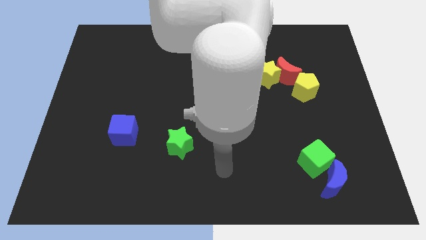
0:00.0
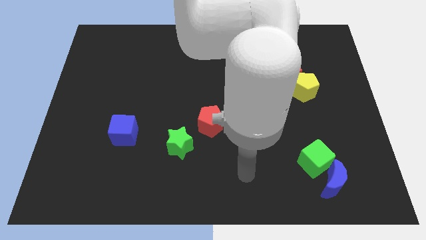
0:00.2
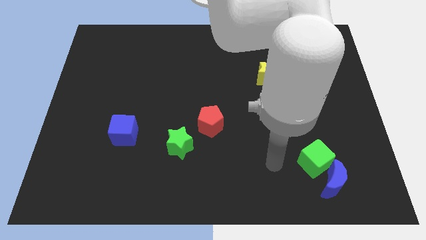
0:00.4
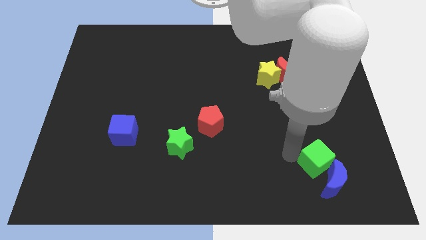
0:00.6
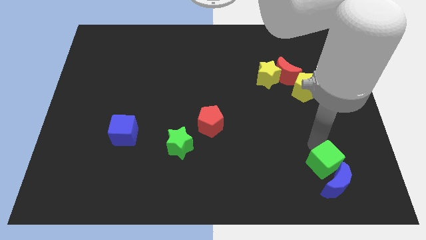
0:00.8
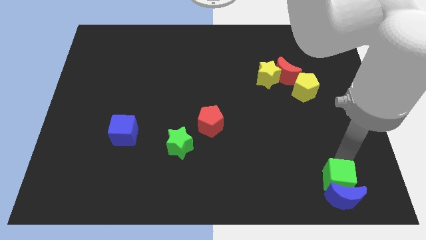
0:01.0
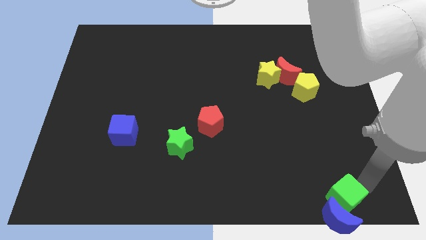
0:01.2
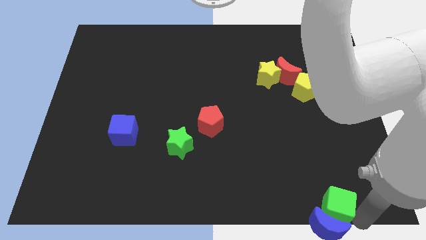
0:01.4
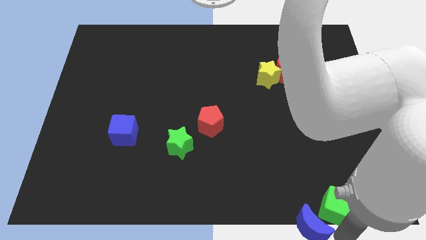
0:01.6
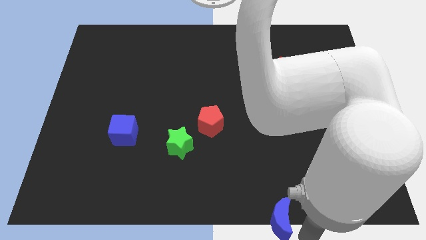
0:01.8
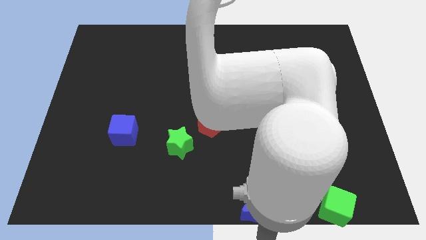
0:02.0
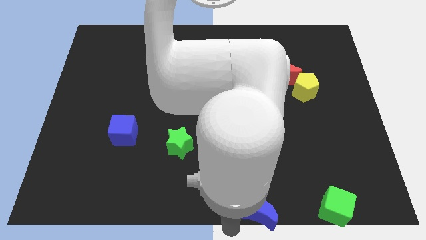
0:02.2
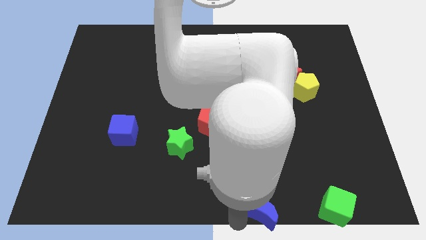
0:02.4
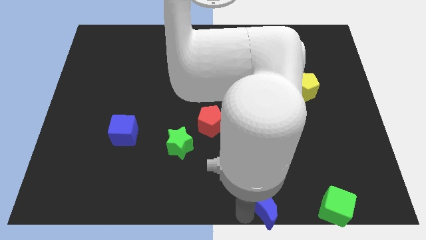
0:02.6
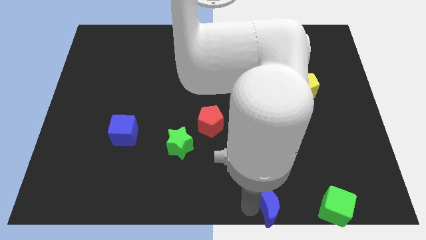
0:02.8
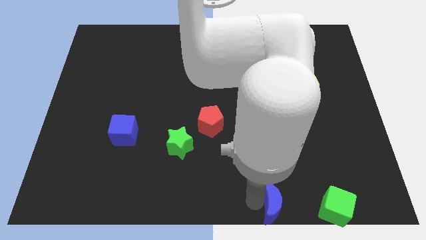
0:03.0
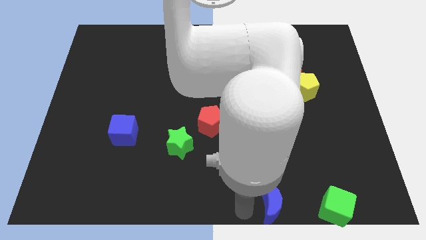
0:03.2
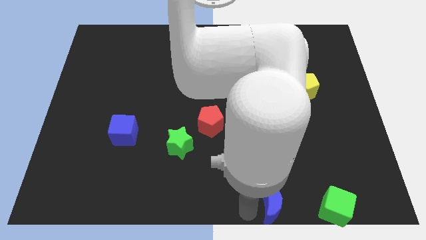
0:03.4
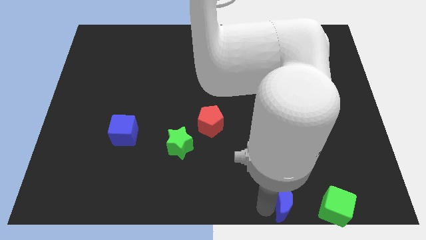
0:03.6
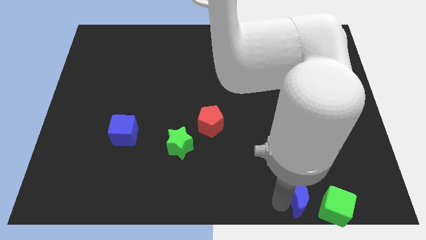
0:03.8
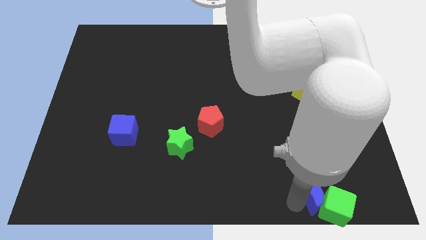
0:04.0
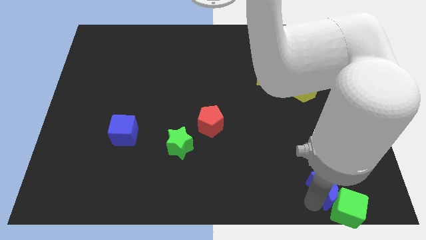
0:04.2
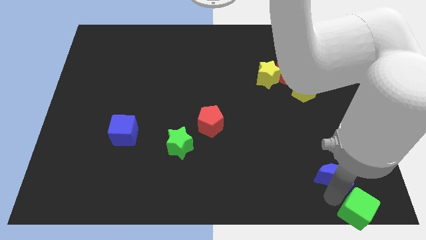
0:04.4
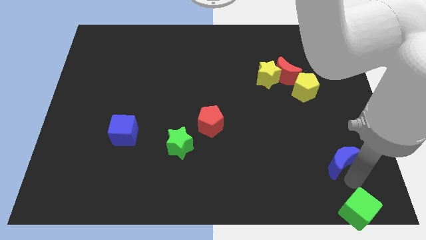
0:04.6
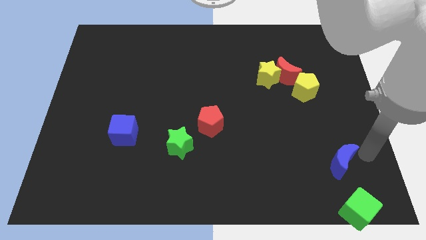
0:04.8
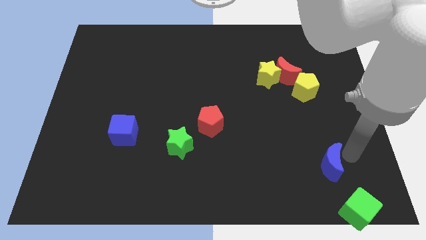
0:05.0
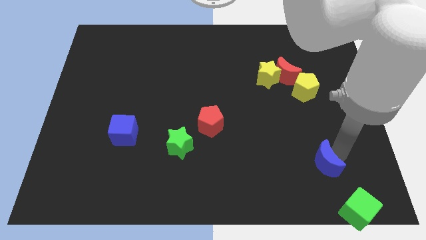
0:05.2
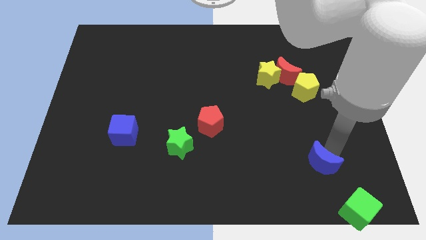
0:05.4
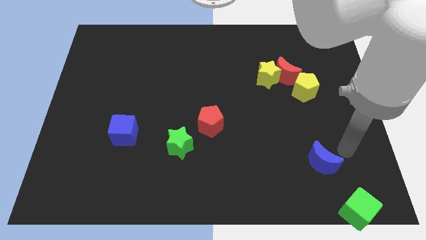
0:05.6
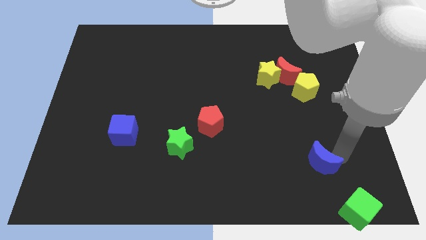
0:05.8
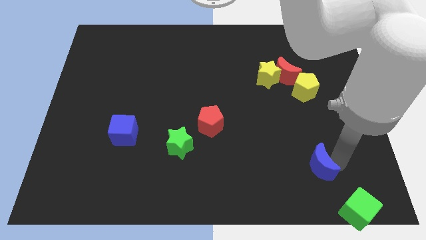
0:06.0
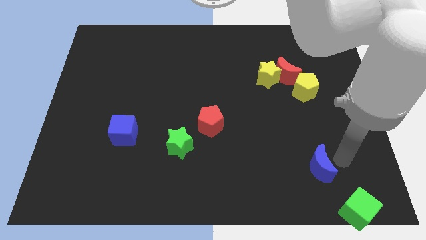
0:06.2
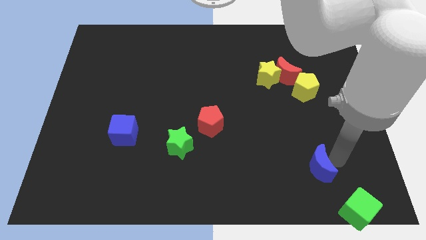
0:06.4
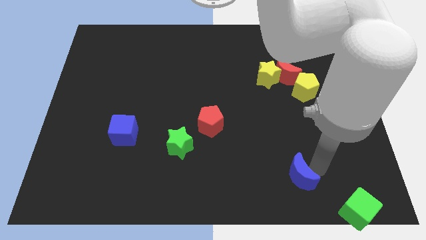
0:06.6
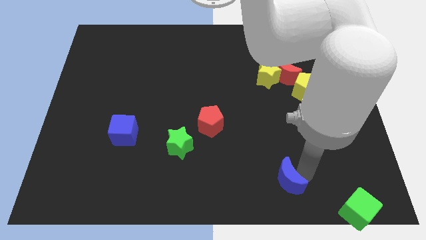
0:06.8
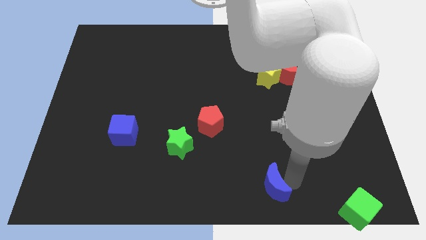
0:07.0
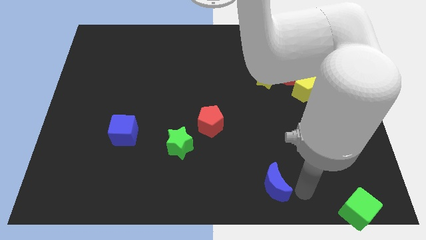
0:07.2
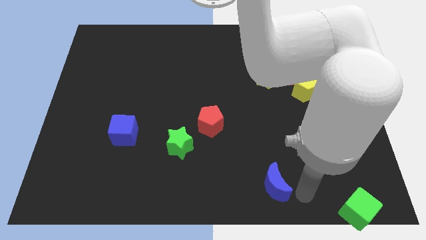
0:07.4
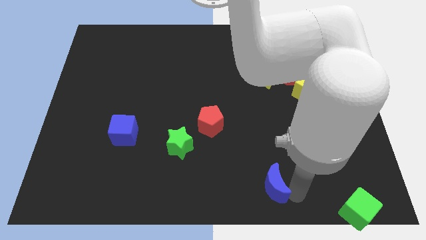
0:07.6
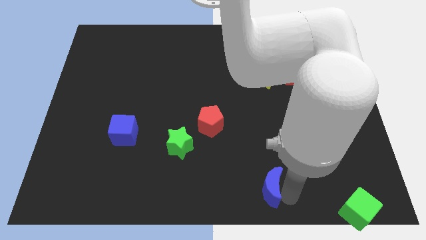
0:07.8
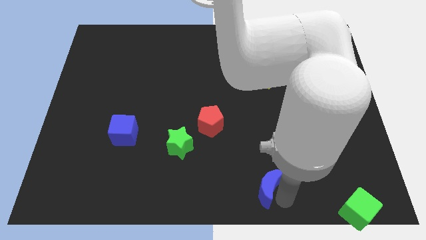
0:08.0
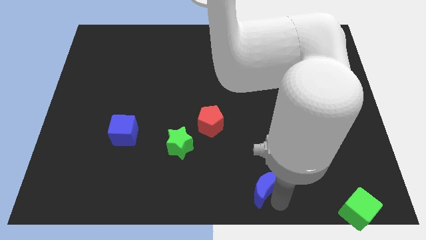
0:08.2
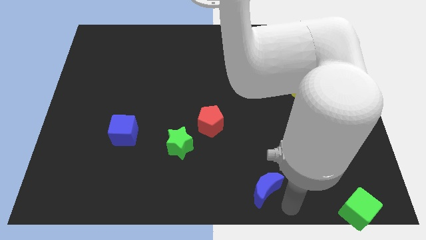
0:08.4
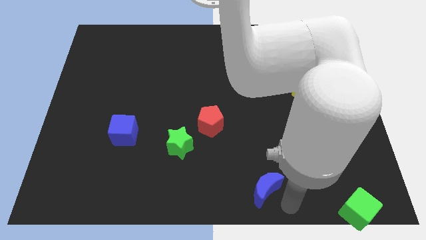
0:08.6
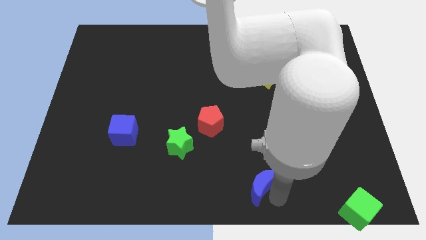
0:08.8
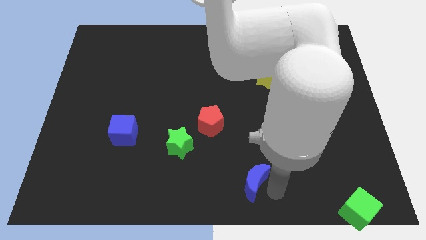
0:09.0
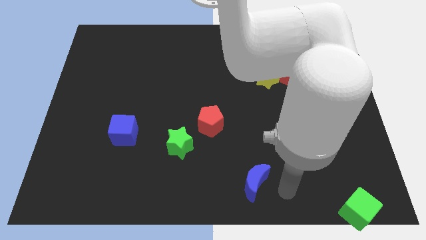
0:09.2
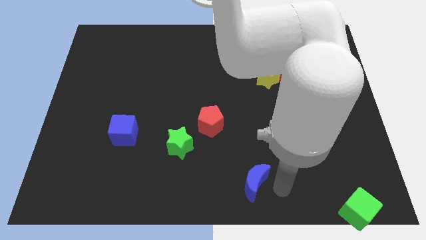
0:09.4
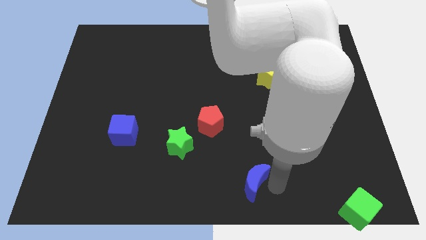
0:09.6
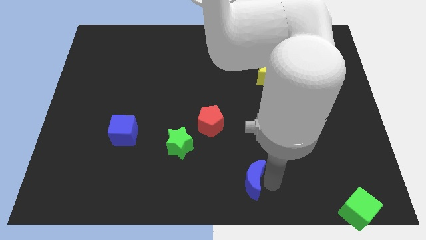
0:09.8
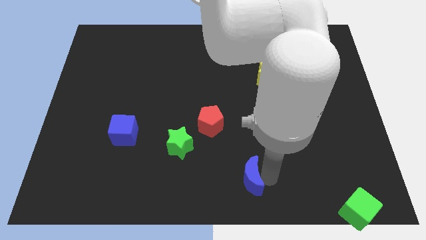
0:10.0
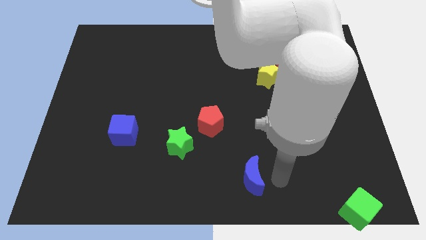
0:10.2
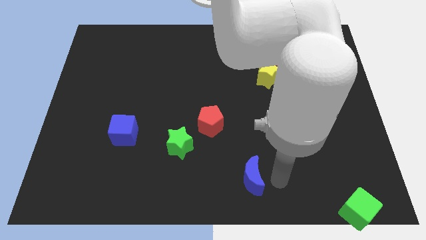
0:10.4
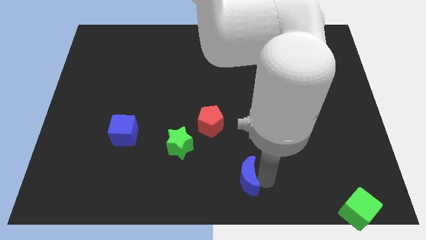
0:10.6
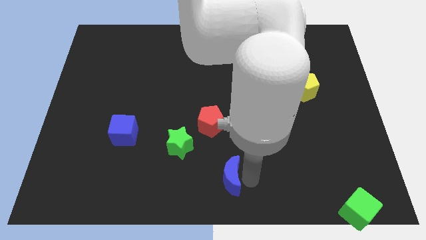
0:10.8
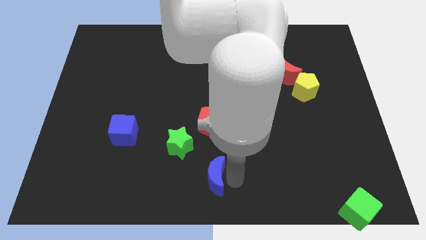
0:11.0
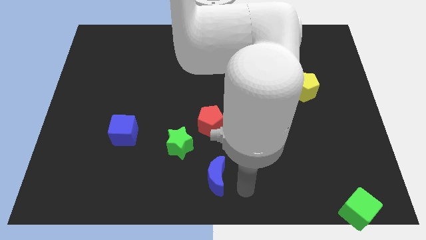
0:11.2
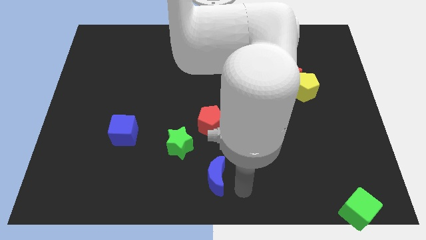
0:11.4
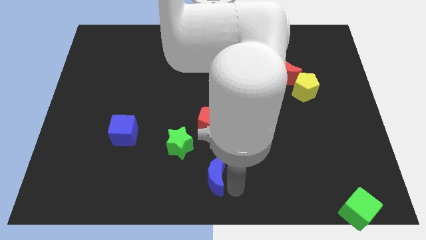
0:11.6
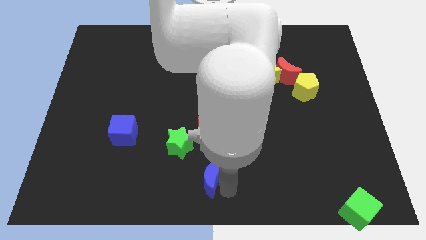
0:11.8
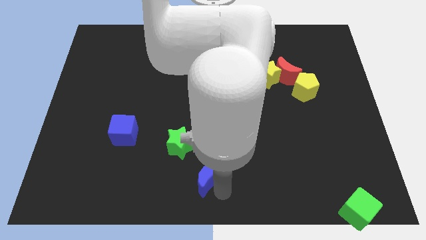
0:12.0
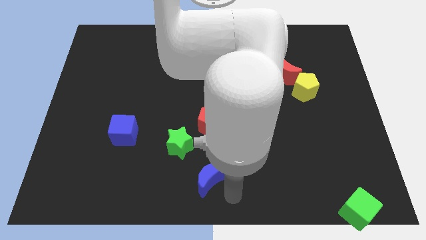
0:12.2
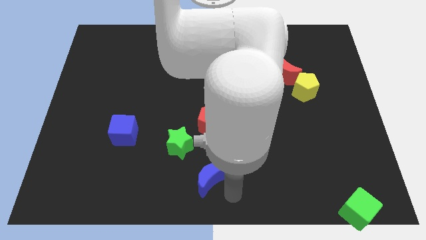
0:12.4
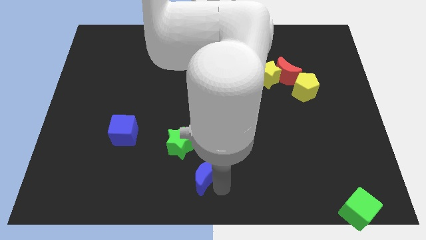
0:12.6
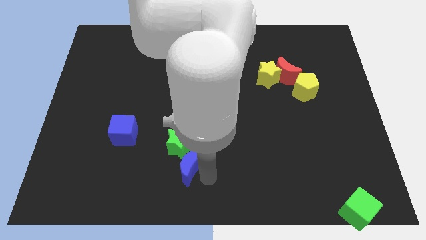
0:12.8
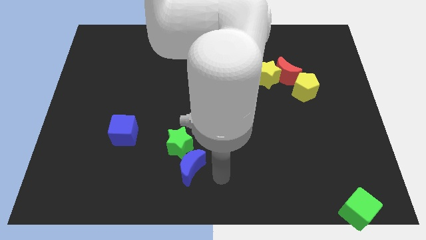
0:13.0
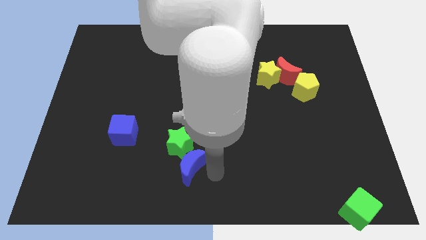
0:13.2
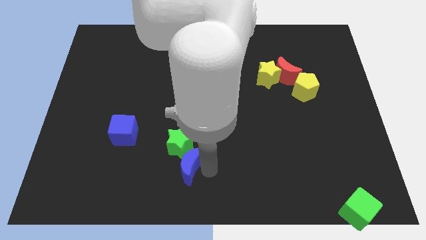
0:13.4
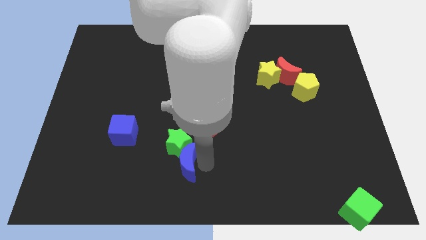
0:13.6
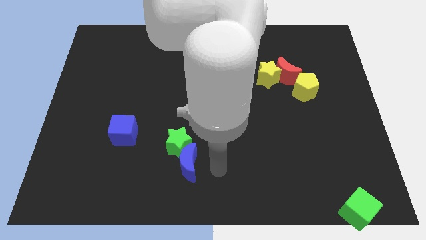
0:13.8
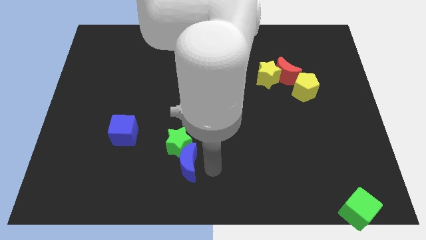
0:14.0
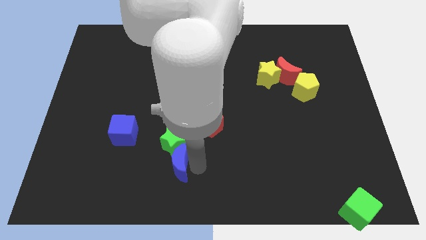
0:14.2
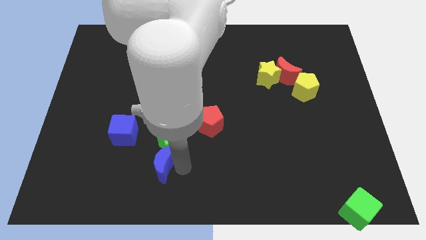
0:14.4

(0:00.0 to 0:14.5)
push the blue moon to the bottom right of the blue cube

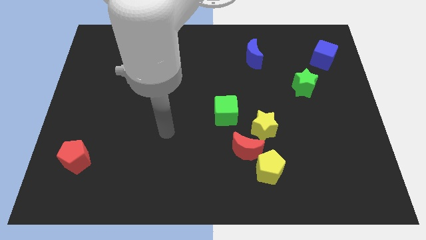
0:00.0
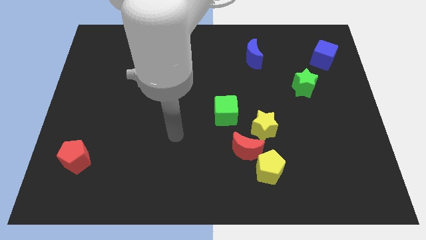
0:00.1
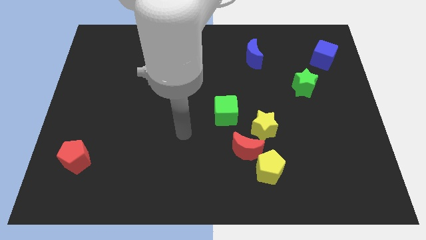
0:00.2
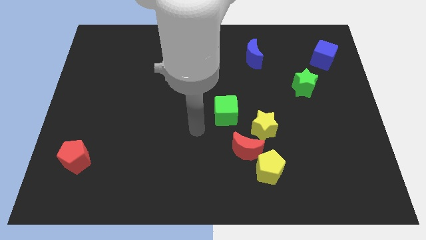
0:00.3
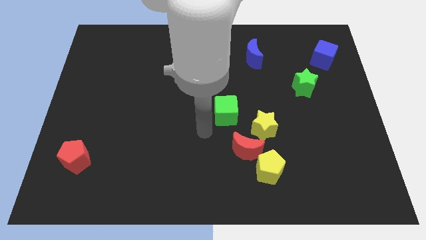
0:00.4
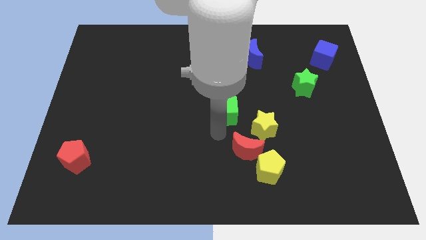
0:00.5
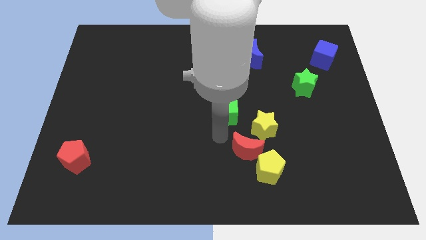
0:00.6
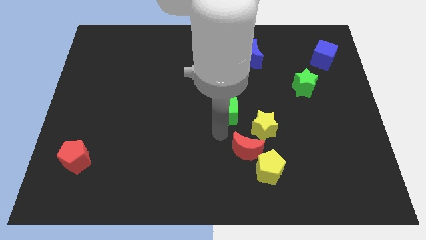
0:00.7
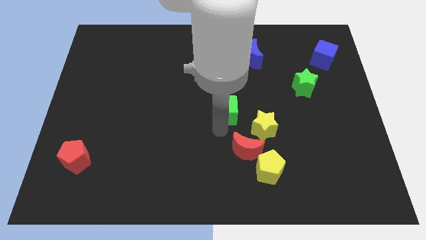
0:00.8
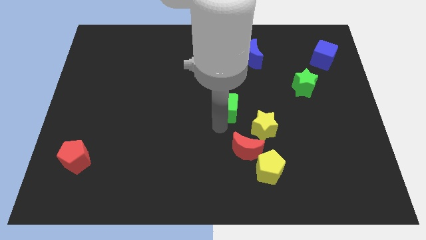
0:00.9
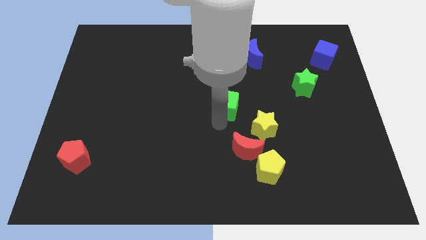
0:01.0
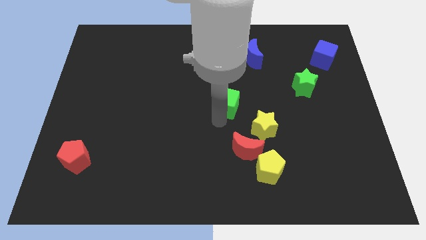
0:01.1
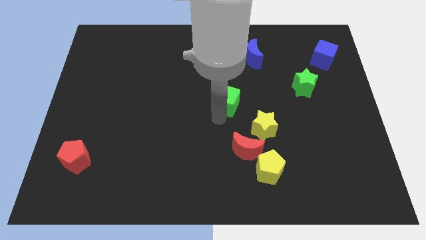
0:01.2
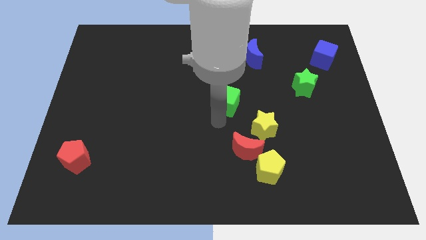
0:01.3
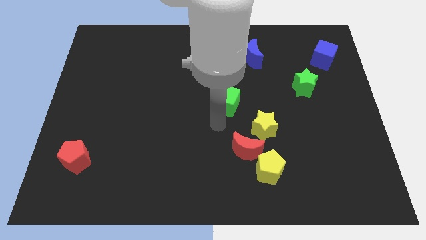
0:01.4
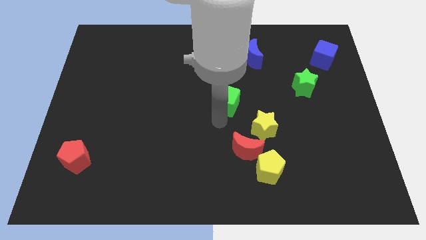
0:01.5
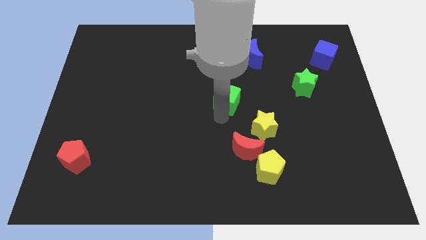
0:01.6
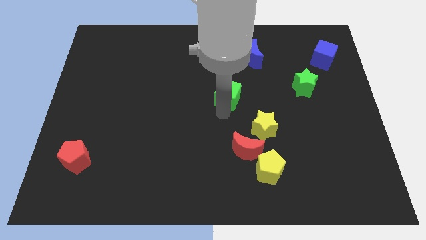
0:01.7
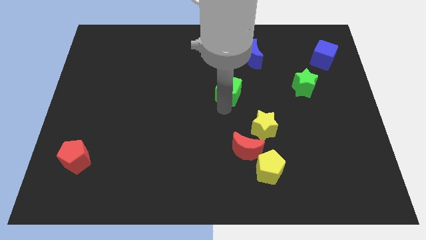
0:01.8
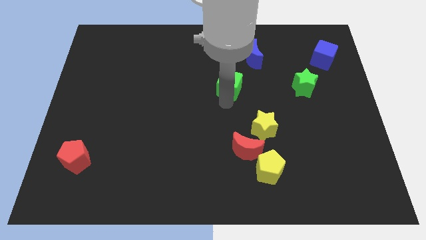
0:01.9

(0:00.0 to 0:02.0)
move the green cube to the bottom left of the blue moon
